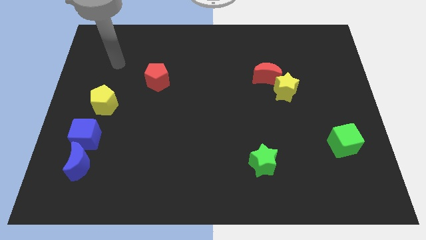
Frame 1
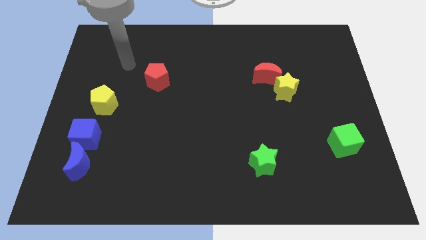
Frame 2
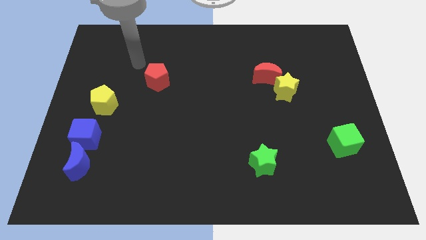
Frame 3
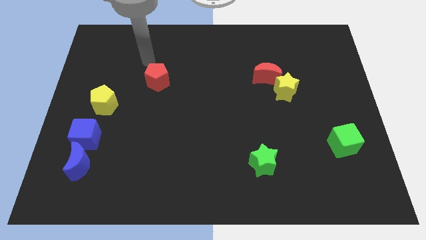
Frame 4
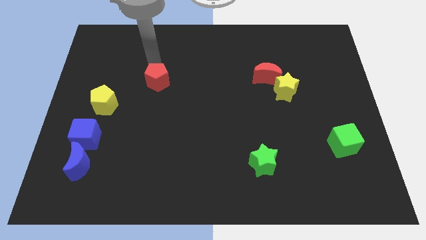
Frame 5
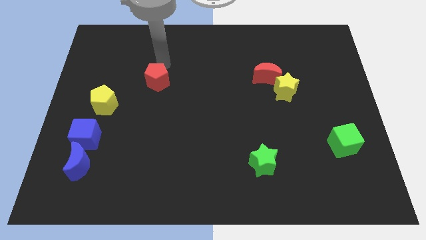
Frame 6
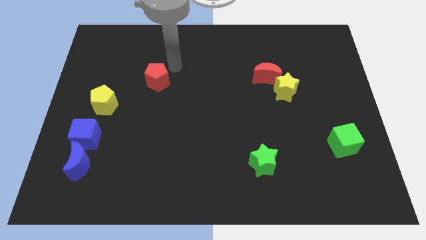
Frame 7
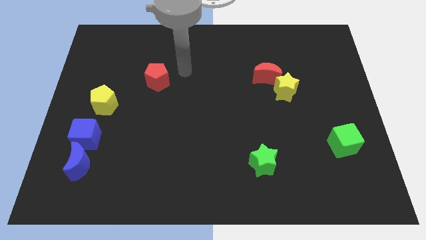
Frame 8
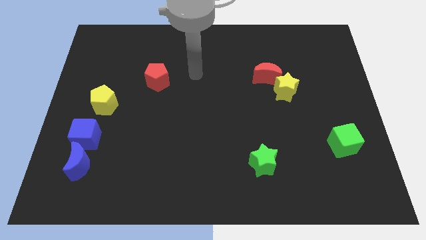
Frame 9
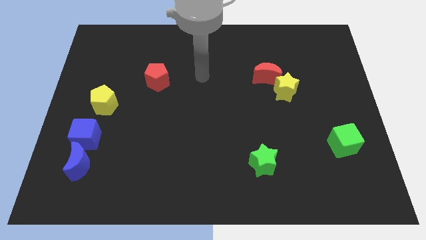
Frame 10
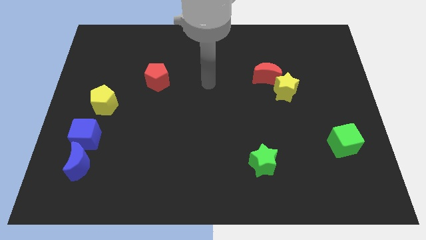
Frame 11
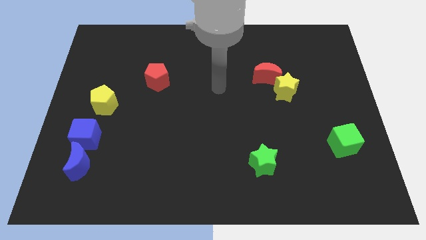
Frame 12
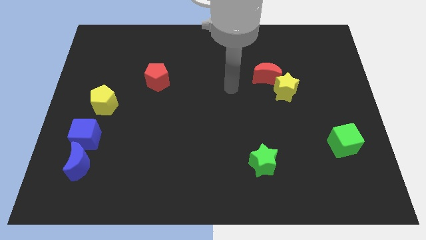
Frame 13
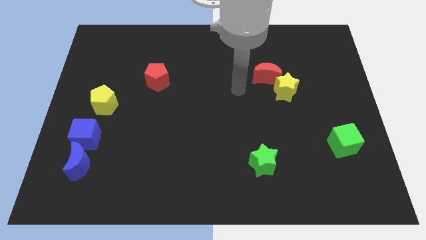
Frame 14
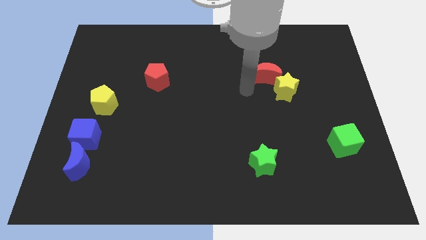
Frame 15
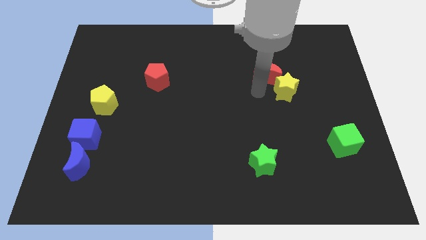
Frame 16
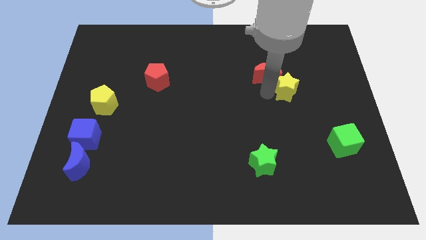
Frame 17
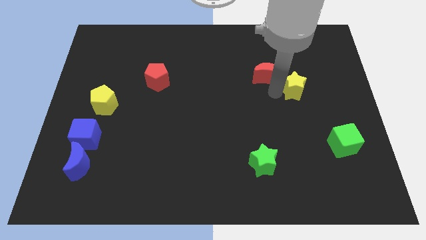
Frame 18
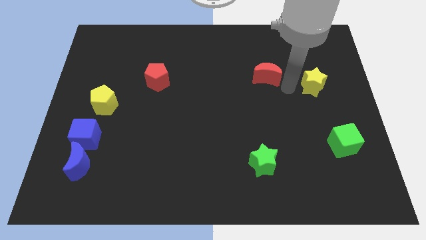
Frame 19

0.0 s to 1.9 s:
pull the red moon apart from the yellow star

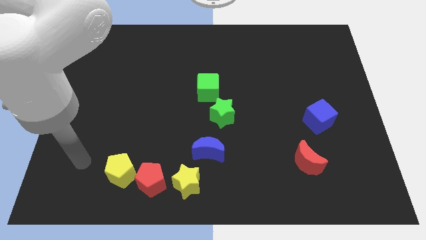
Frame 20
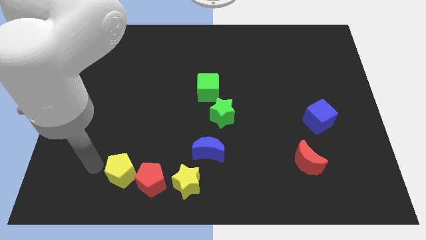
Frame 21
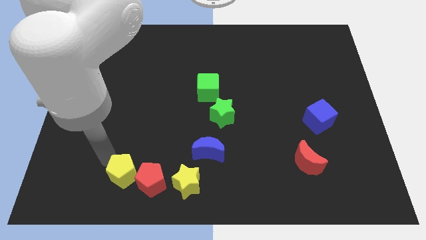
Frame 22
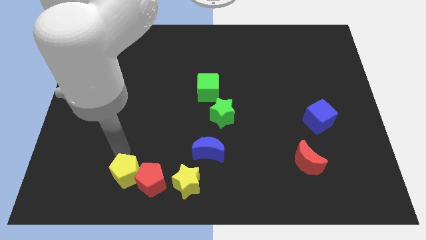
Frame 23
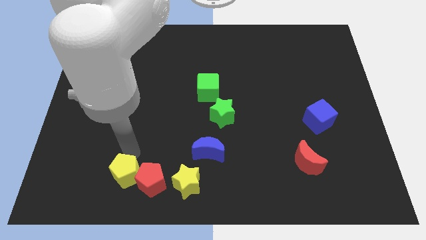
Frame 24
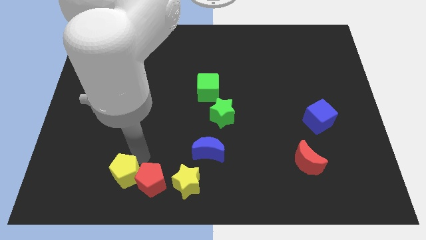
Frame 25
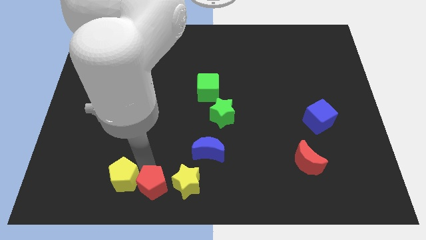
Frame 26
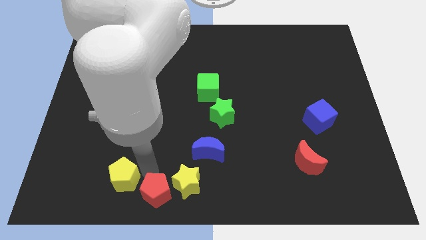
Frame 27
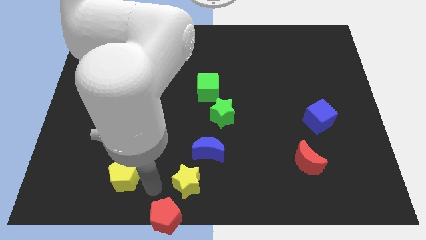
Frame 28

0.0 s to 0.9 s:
separate the yellow pentagon from the red pentagon

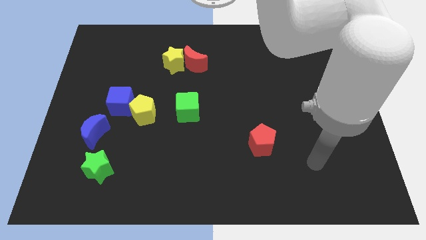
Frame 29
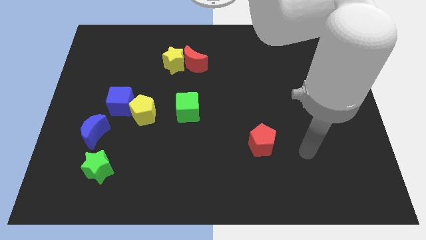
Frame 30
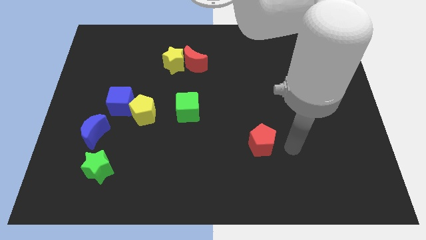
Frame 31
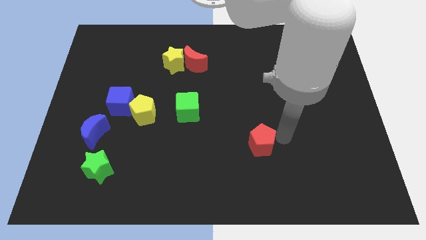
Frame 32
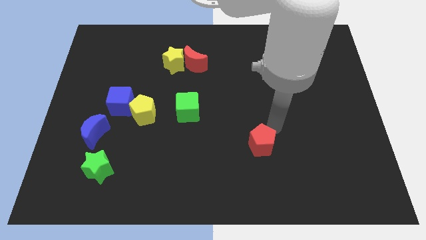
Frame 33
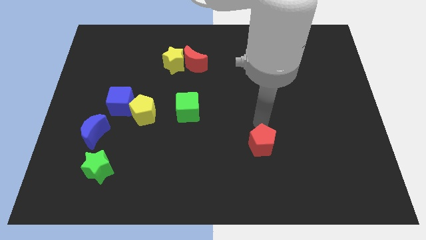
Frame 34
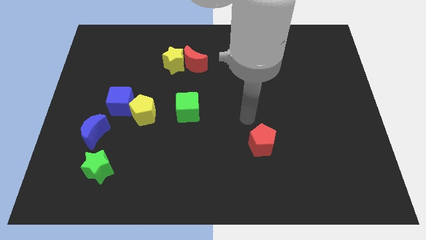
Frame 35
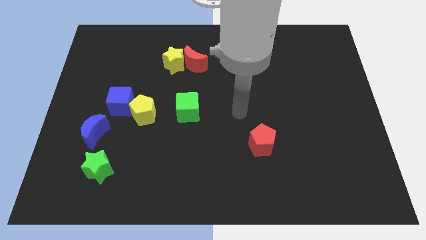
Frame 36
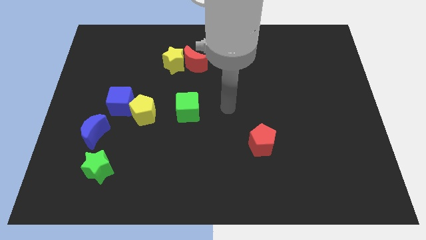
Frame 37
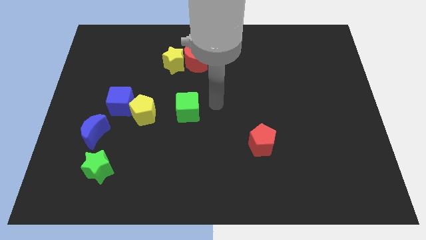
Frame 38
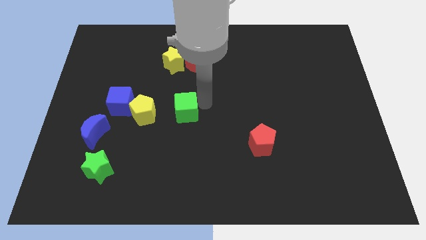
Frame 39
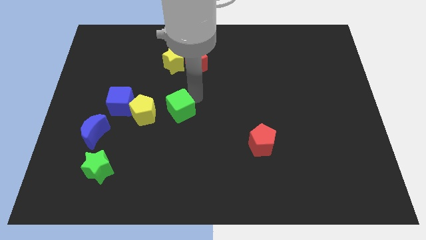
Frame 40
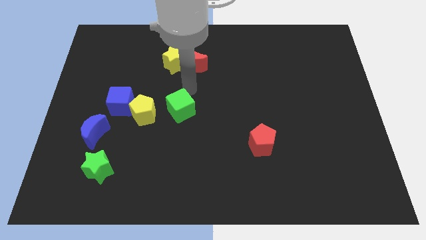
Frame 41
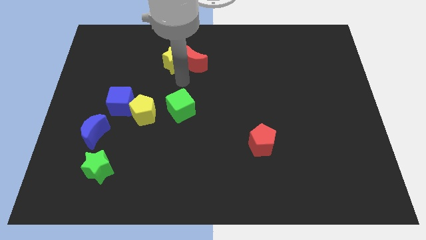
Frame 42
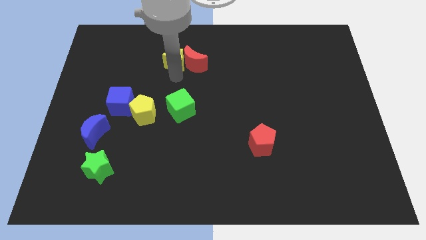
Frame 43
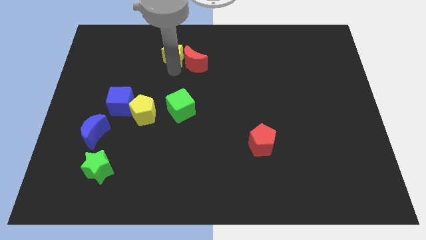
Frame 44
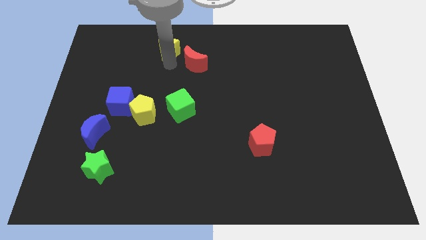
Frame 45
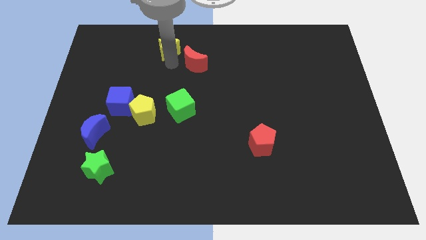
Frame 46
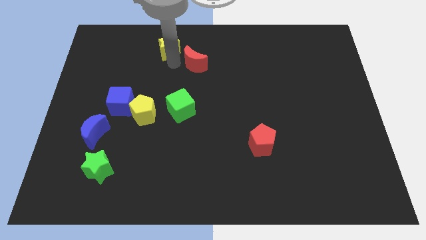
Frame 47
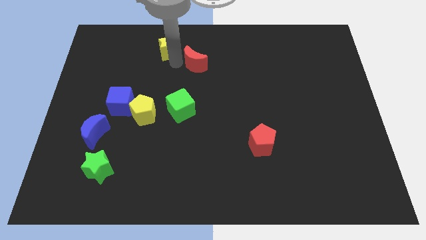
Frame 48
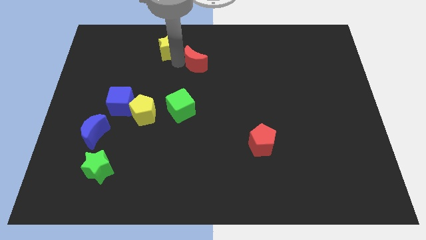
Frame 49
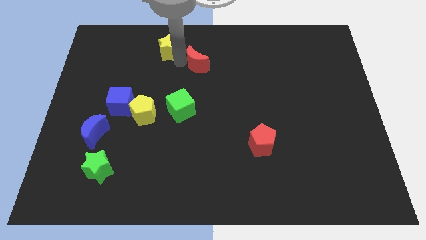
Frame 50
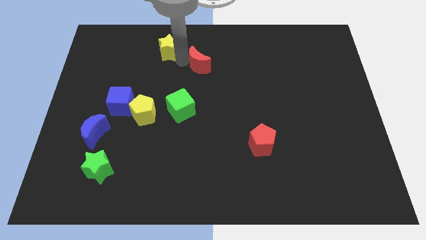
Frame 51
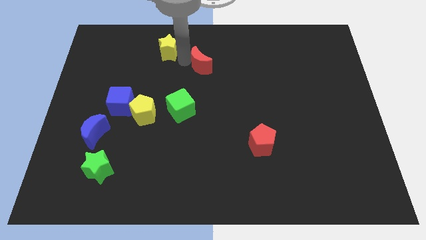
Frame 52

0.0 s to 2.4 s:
separate the red moon from the yellow star

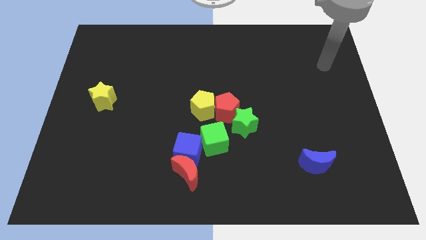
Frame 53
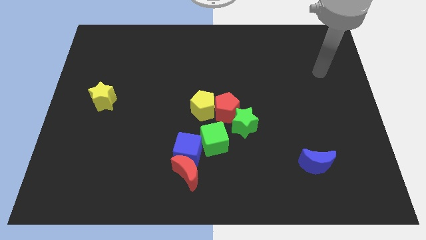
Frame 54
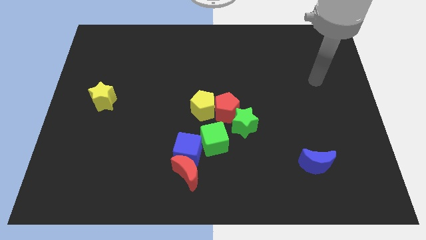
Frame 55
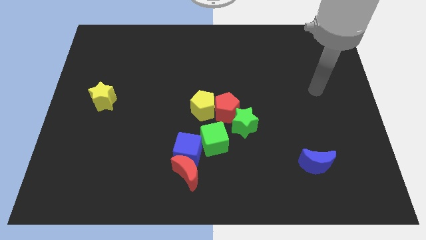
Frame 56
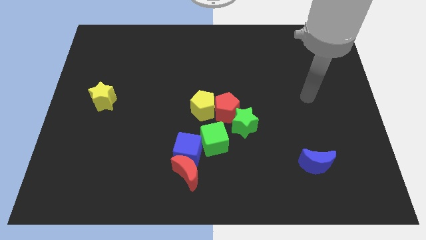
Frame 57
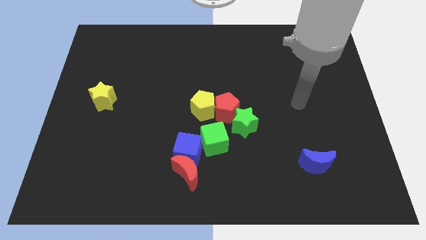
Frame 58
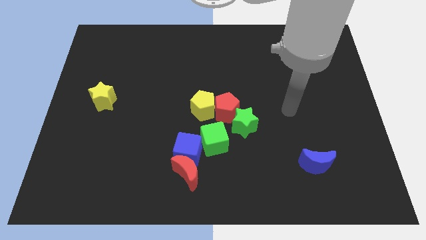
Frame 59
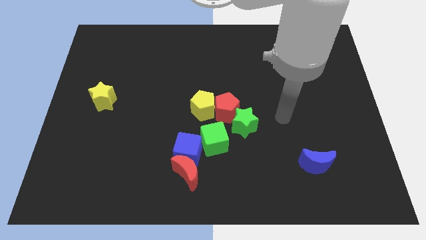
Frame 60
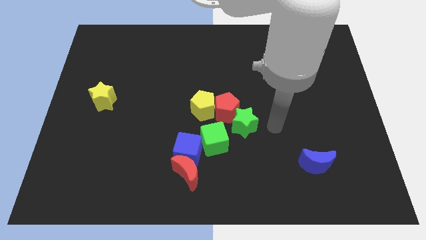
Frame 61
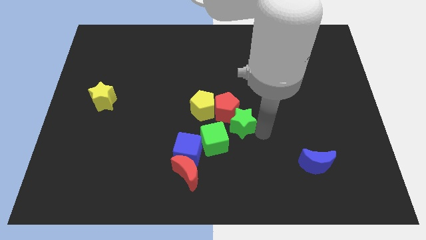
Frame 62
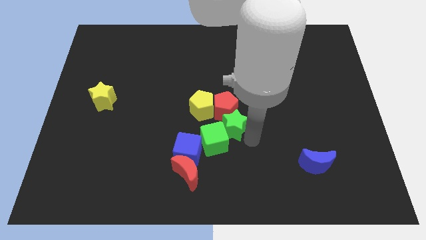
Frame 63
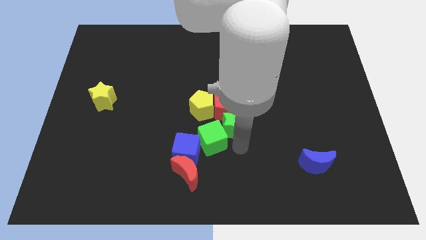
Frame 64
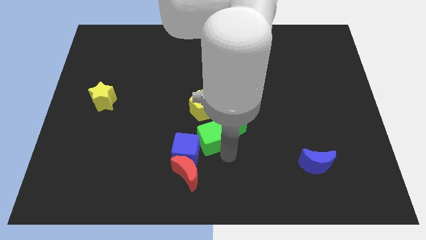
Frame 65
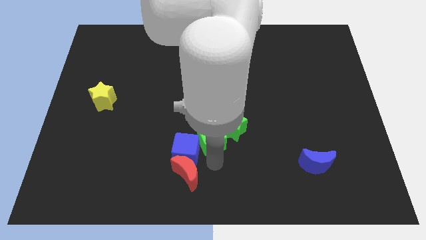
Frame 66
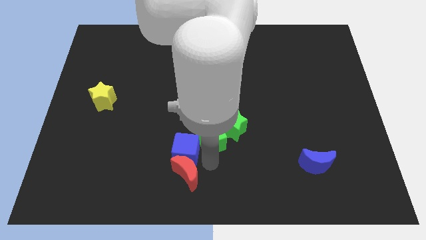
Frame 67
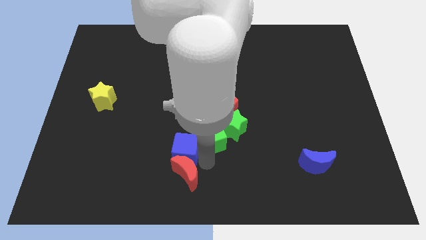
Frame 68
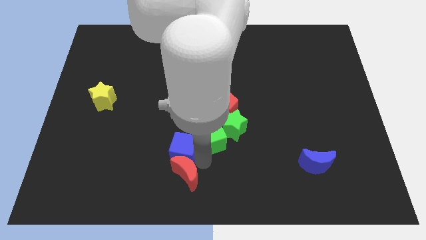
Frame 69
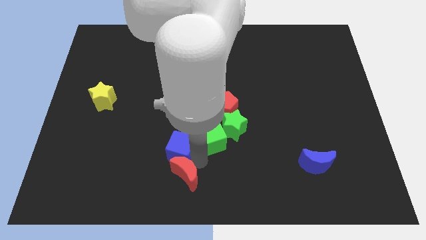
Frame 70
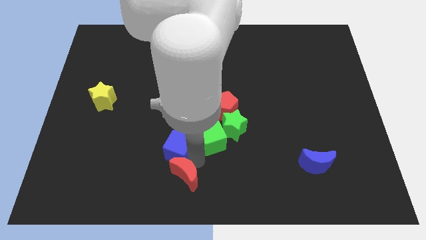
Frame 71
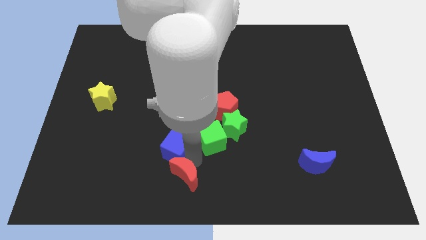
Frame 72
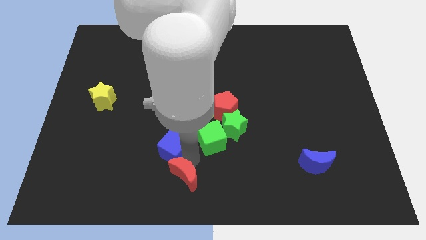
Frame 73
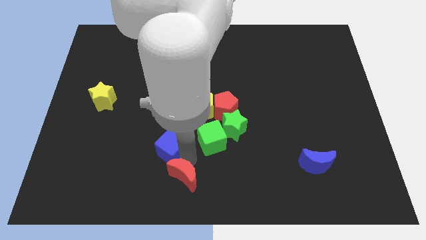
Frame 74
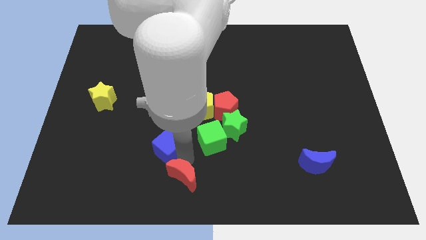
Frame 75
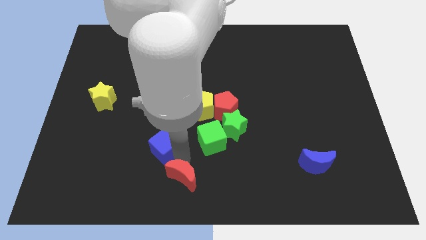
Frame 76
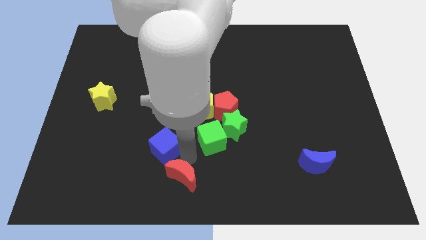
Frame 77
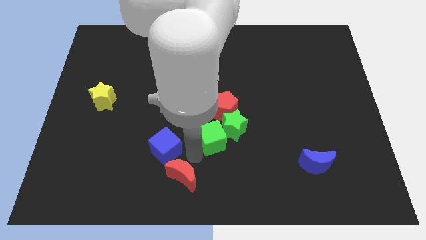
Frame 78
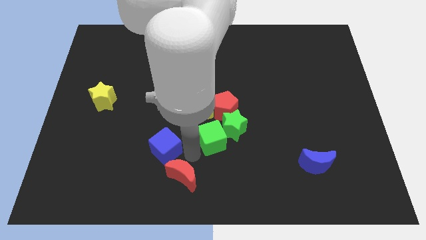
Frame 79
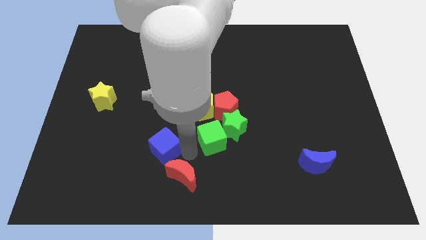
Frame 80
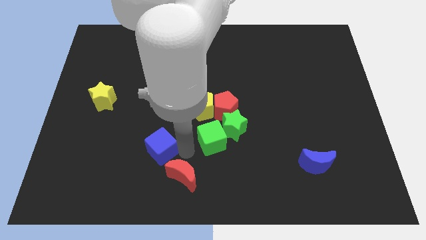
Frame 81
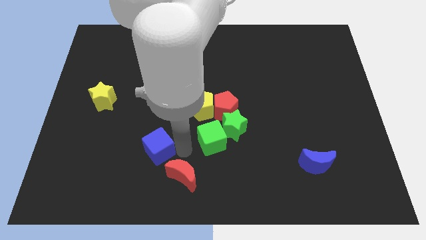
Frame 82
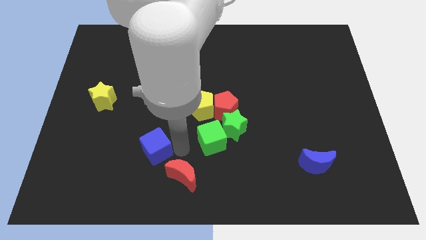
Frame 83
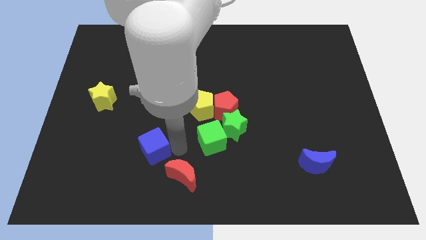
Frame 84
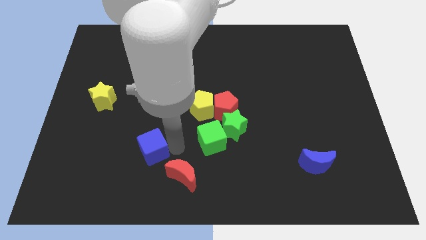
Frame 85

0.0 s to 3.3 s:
pull the blue cube apart from the red moon and green cube

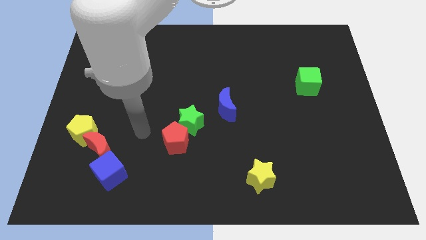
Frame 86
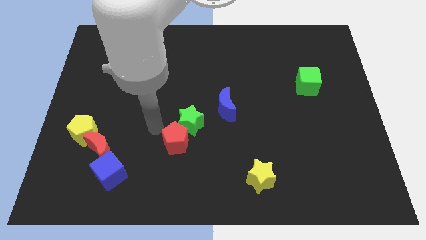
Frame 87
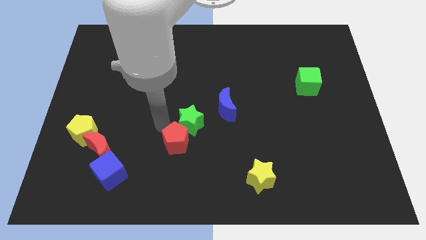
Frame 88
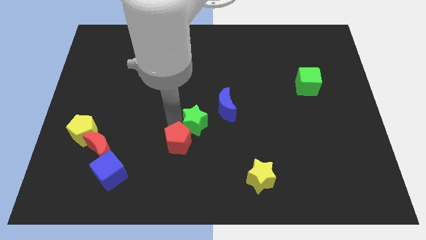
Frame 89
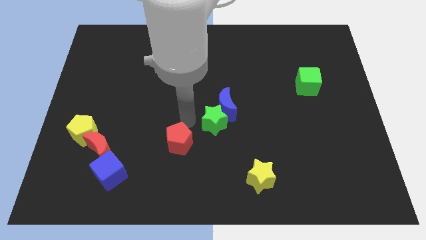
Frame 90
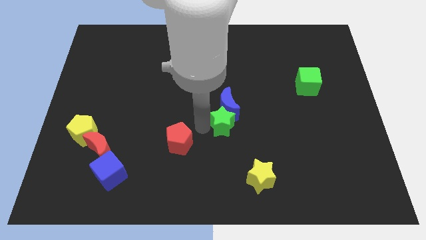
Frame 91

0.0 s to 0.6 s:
separate the red pentagon from the green star
